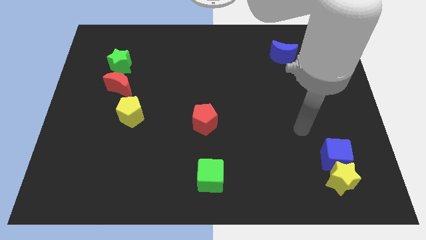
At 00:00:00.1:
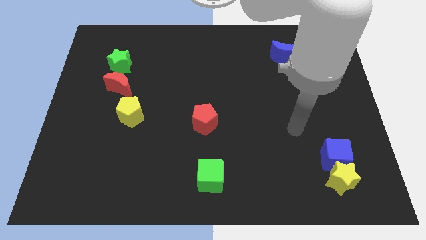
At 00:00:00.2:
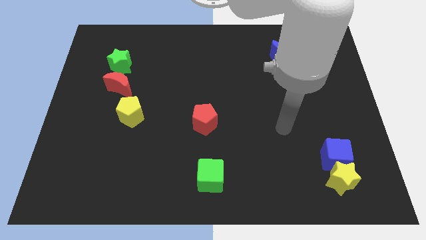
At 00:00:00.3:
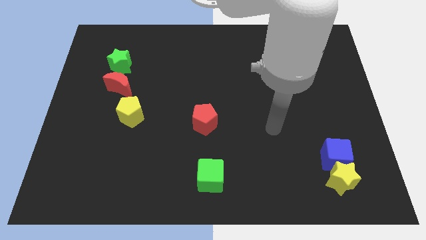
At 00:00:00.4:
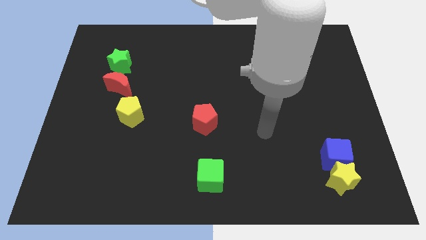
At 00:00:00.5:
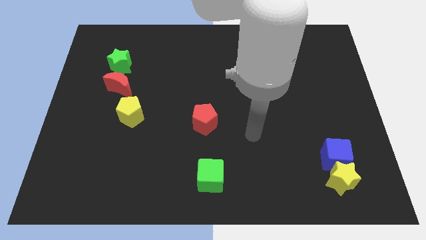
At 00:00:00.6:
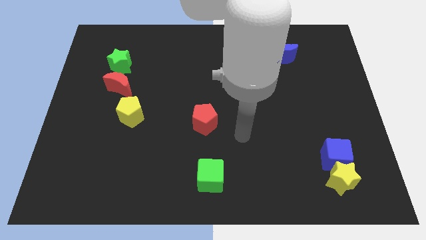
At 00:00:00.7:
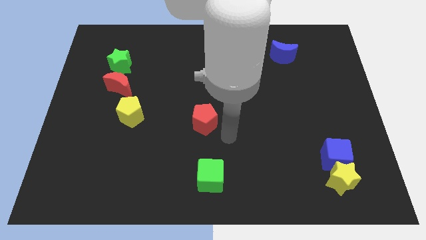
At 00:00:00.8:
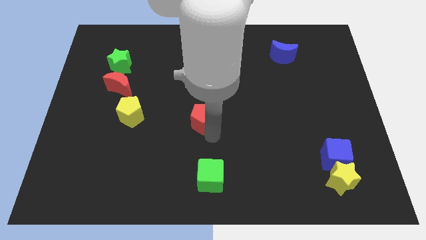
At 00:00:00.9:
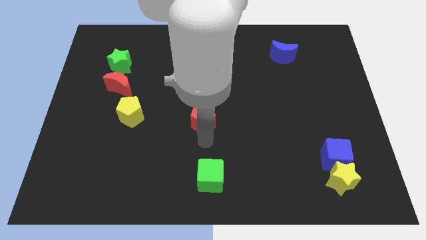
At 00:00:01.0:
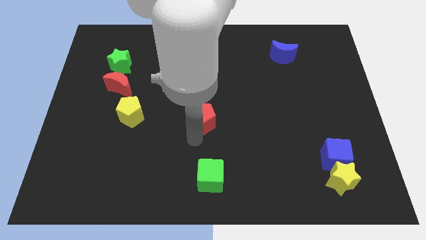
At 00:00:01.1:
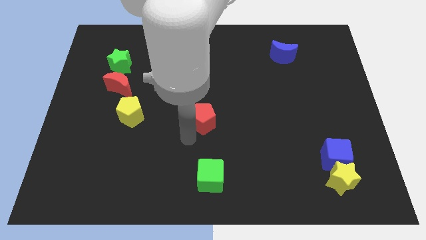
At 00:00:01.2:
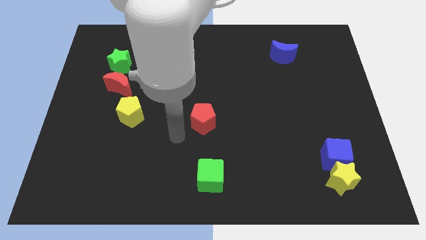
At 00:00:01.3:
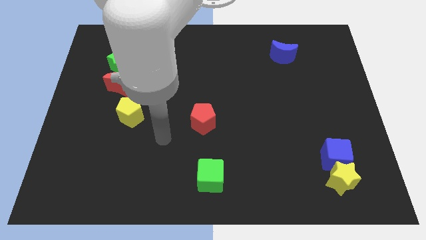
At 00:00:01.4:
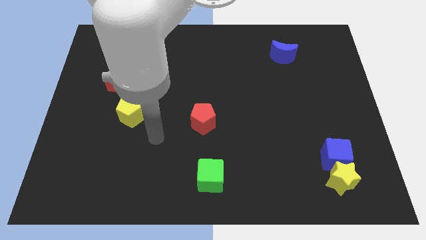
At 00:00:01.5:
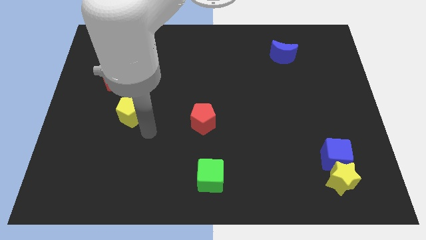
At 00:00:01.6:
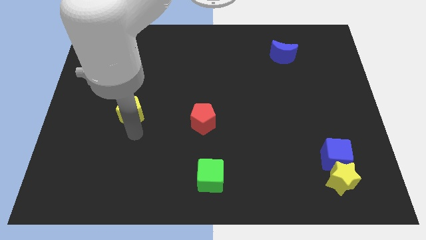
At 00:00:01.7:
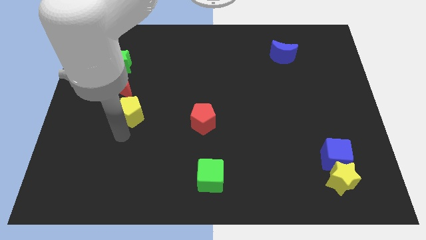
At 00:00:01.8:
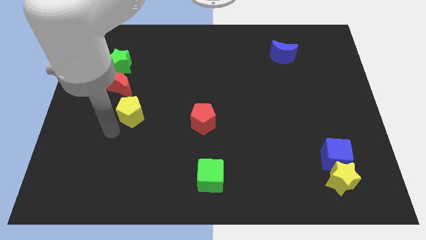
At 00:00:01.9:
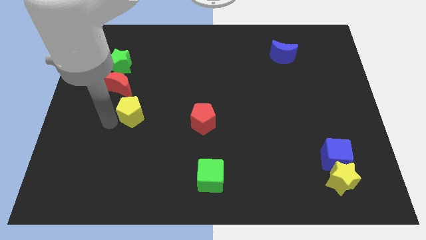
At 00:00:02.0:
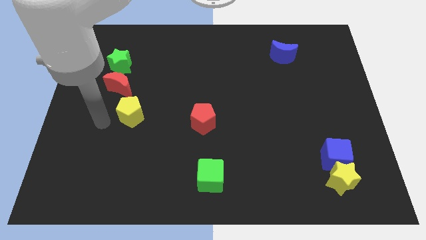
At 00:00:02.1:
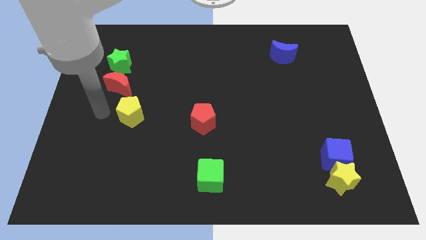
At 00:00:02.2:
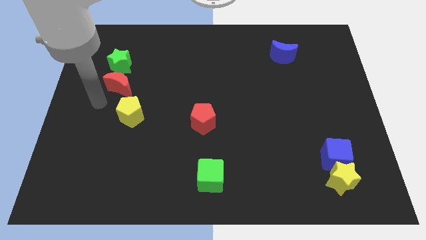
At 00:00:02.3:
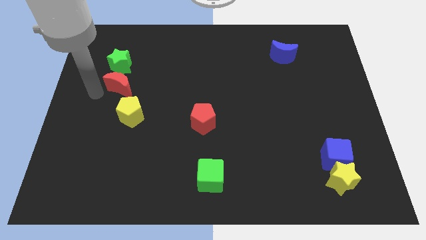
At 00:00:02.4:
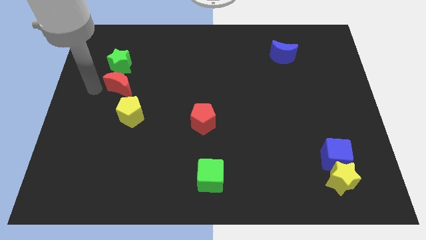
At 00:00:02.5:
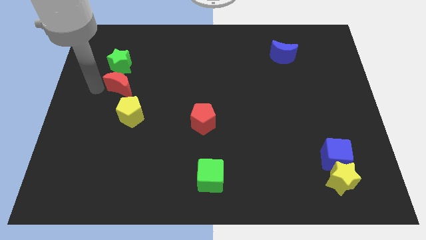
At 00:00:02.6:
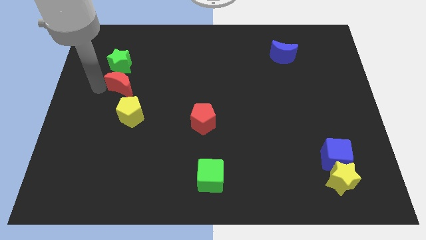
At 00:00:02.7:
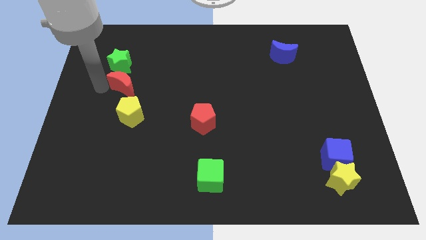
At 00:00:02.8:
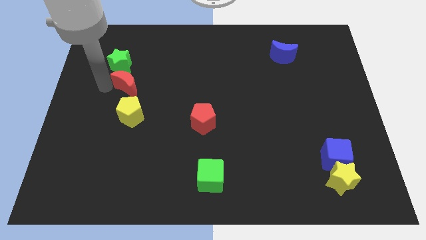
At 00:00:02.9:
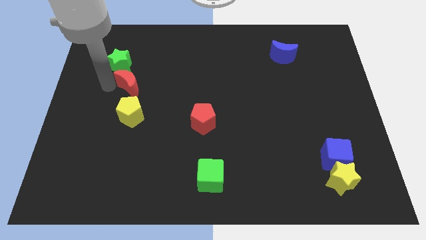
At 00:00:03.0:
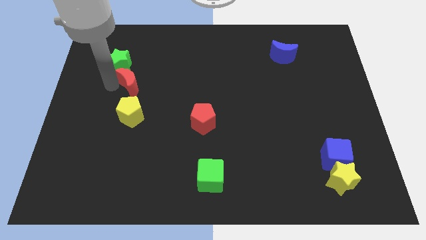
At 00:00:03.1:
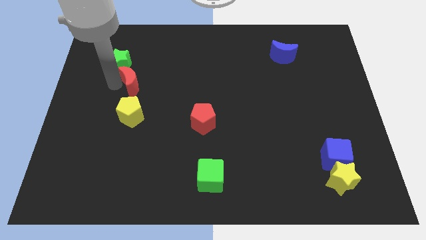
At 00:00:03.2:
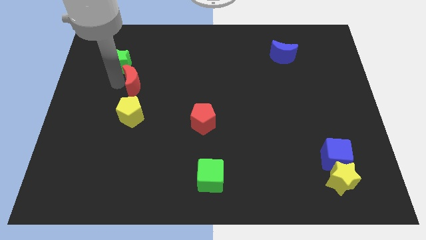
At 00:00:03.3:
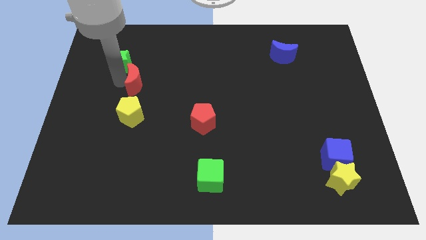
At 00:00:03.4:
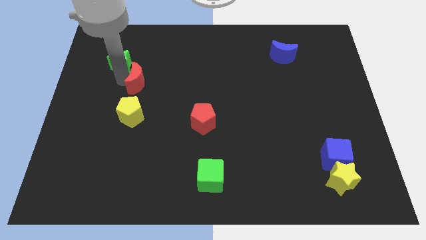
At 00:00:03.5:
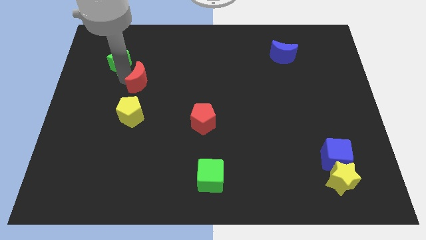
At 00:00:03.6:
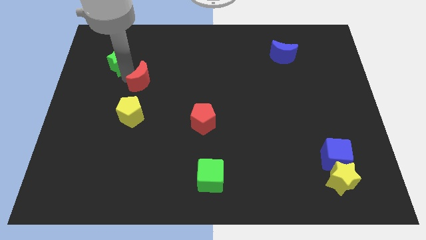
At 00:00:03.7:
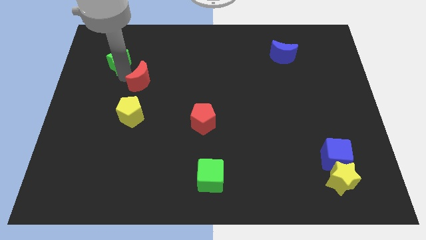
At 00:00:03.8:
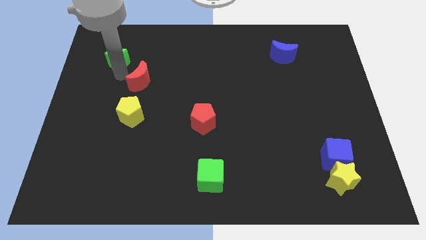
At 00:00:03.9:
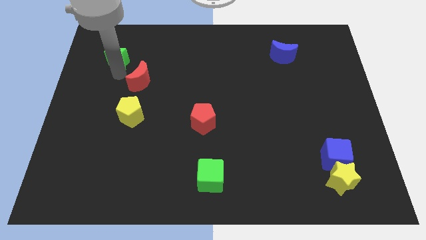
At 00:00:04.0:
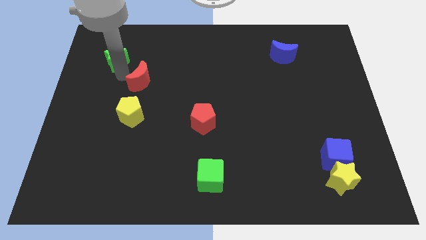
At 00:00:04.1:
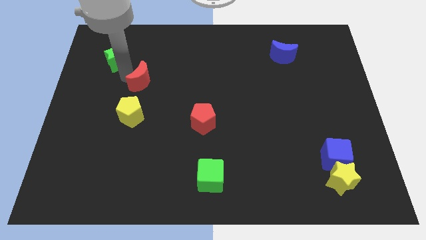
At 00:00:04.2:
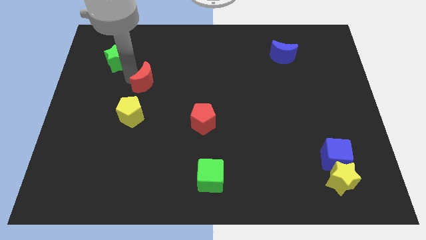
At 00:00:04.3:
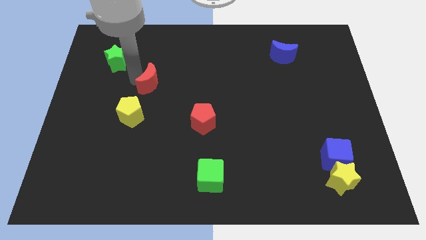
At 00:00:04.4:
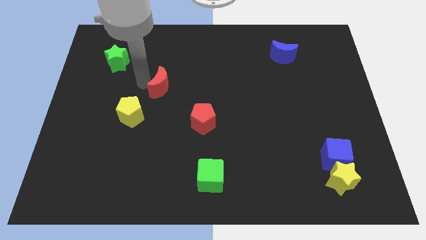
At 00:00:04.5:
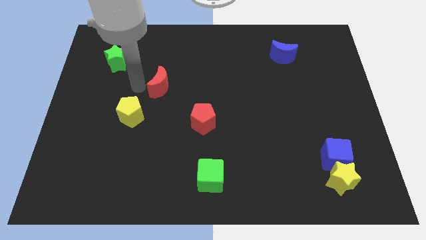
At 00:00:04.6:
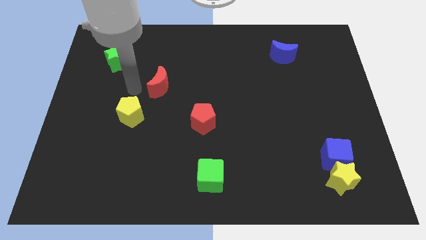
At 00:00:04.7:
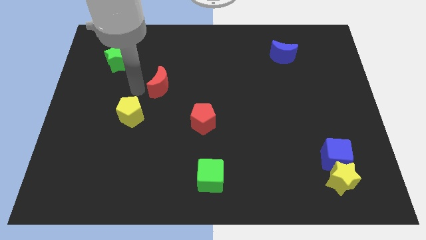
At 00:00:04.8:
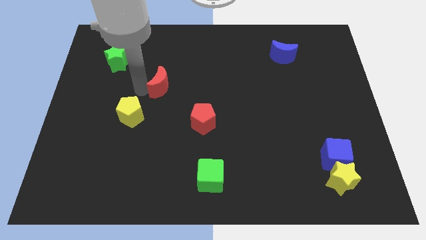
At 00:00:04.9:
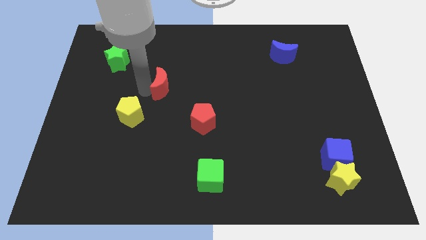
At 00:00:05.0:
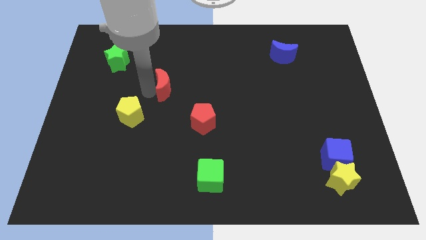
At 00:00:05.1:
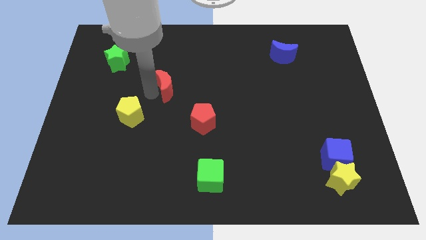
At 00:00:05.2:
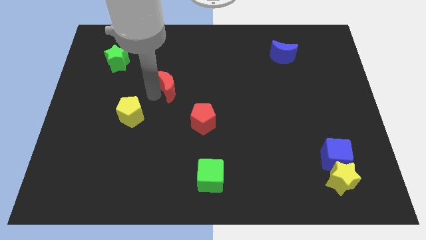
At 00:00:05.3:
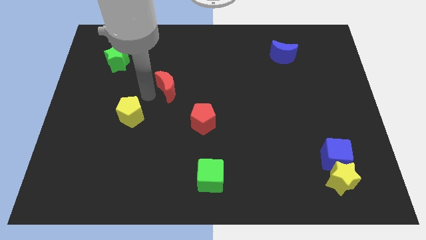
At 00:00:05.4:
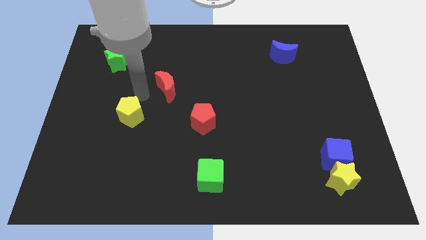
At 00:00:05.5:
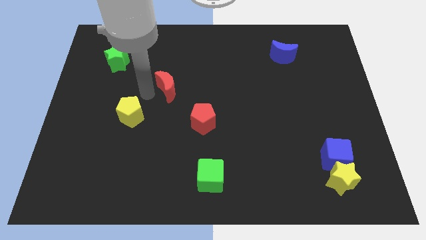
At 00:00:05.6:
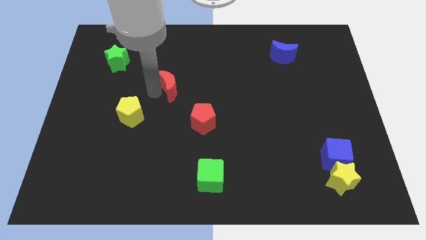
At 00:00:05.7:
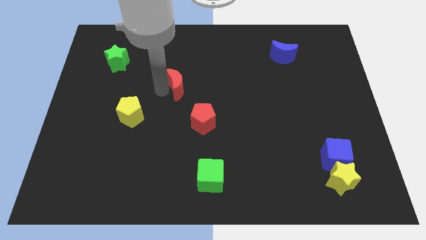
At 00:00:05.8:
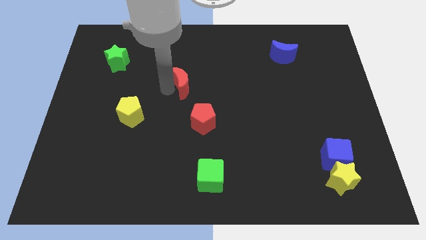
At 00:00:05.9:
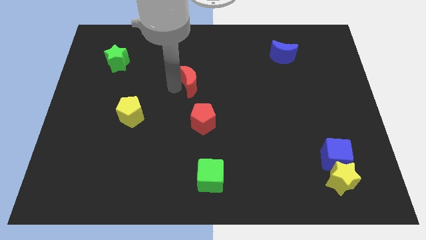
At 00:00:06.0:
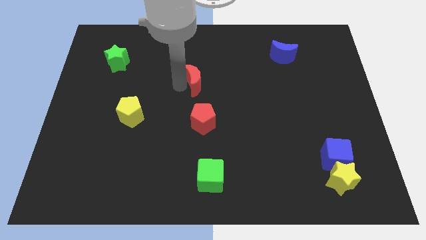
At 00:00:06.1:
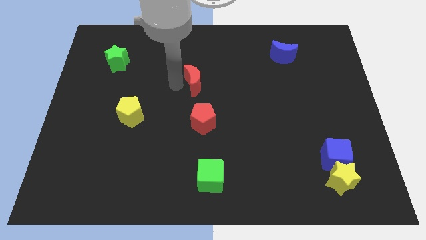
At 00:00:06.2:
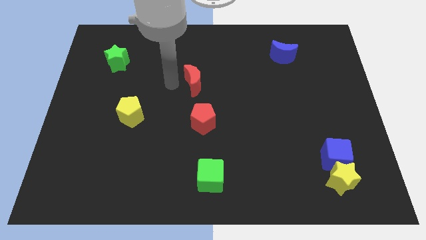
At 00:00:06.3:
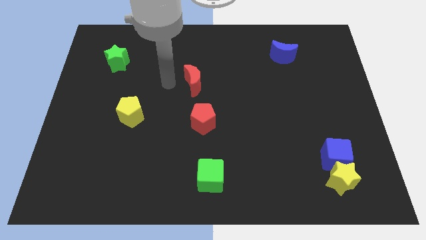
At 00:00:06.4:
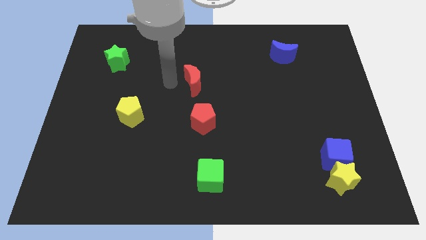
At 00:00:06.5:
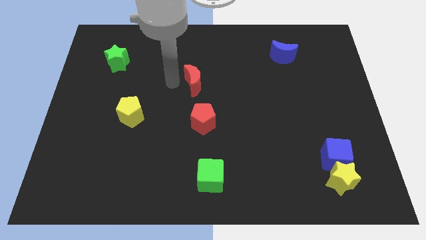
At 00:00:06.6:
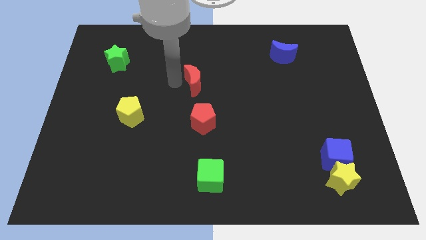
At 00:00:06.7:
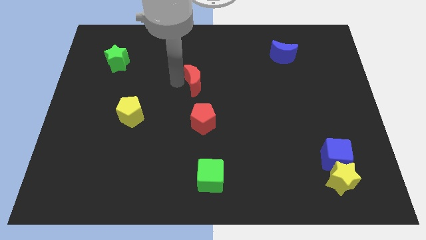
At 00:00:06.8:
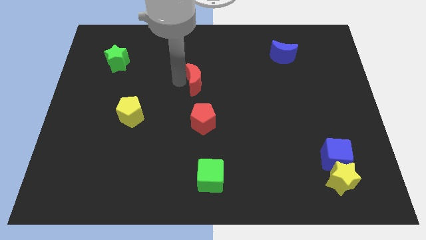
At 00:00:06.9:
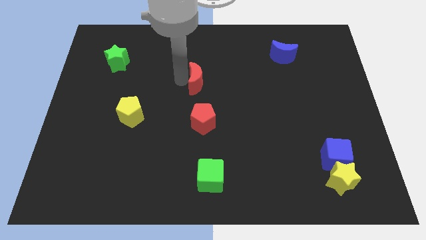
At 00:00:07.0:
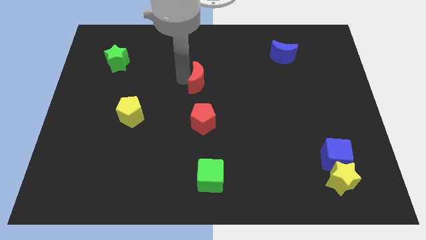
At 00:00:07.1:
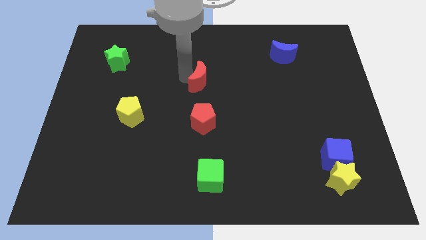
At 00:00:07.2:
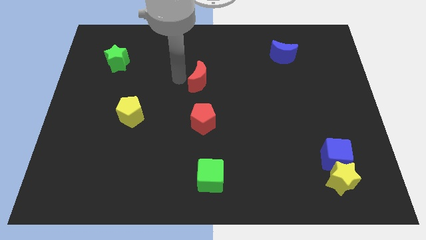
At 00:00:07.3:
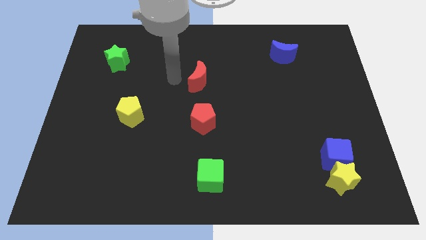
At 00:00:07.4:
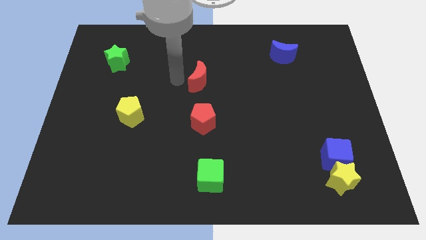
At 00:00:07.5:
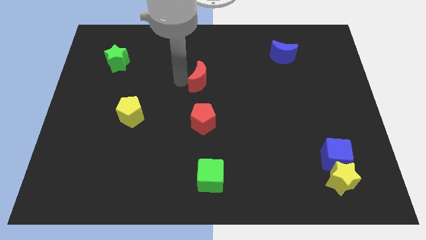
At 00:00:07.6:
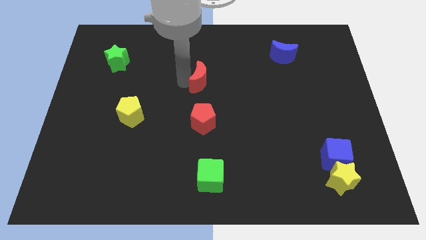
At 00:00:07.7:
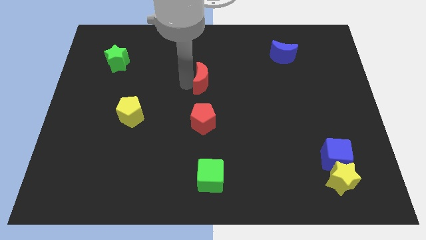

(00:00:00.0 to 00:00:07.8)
slide the red moon to the right

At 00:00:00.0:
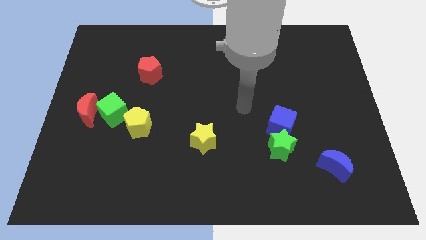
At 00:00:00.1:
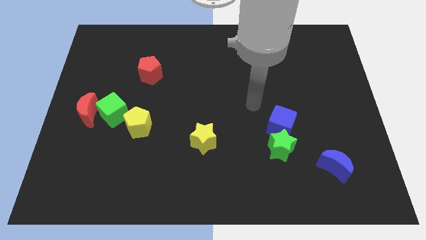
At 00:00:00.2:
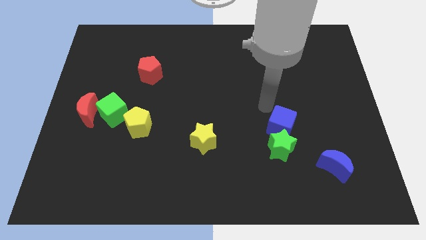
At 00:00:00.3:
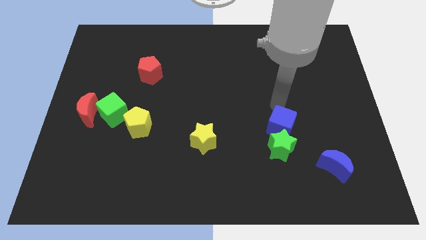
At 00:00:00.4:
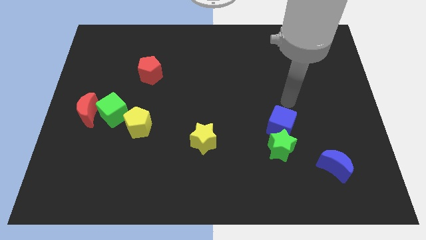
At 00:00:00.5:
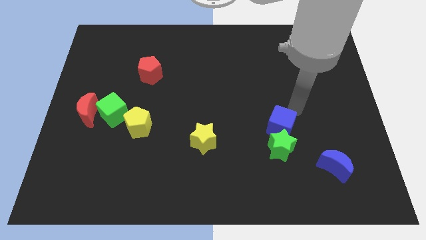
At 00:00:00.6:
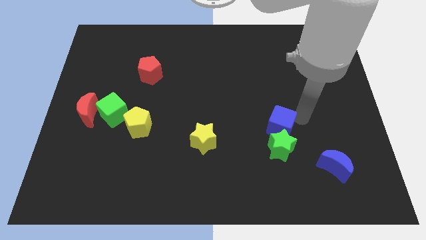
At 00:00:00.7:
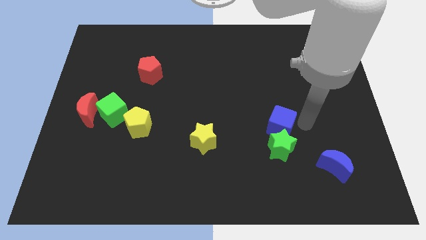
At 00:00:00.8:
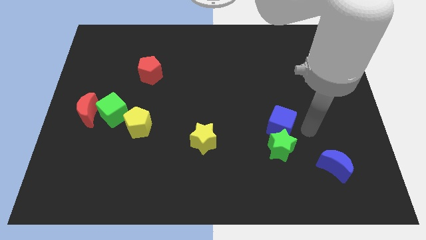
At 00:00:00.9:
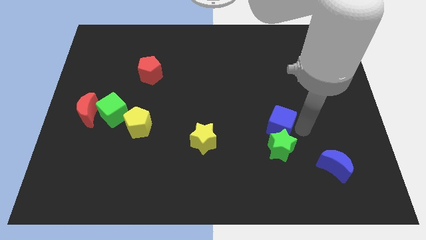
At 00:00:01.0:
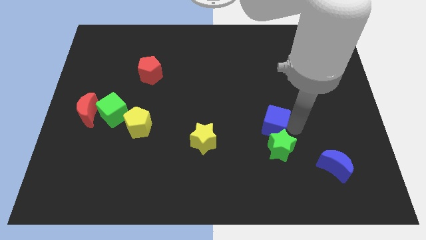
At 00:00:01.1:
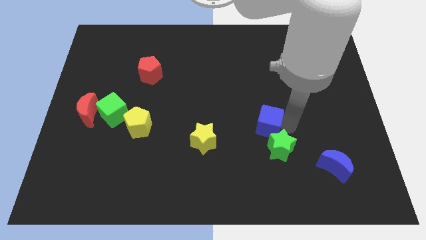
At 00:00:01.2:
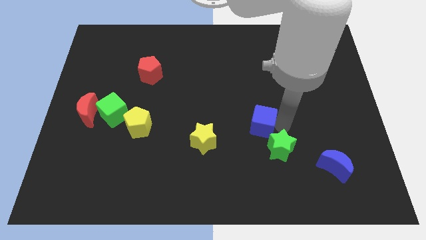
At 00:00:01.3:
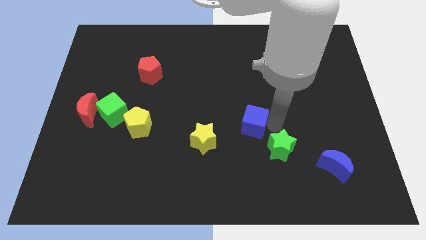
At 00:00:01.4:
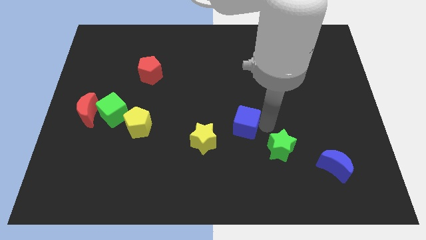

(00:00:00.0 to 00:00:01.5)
slightly push the blue cube to the left
